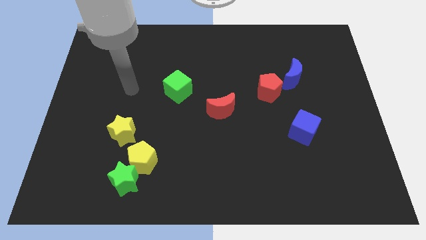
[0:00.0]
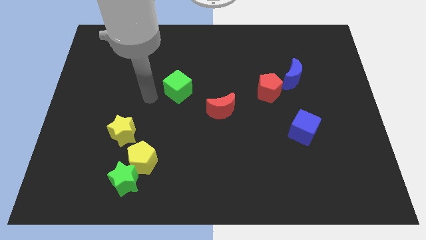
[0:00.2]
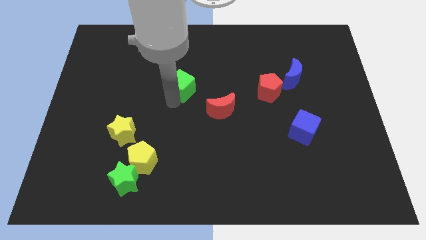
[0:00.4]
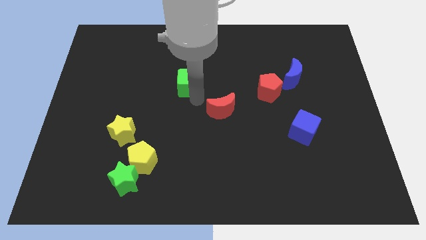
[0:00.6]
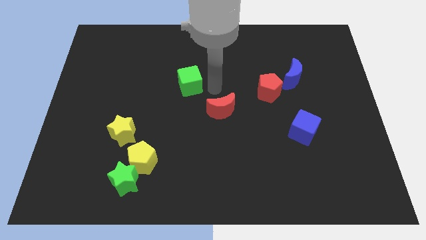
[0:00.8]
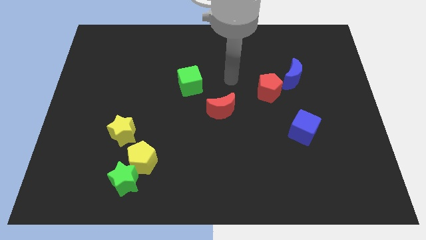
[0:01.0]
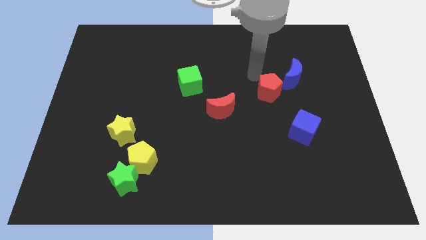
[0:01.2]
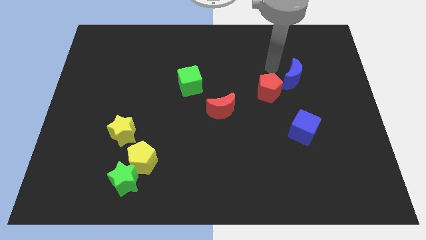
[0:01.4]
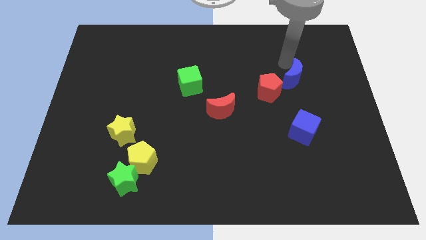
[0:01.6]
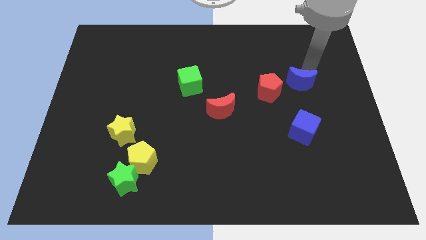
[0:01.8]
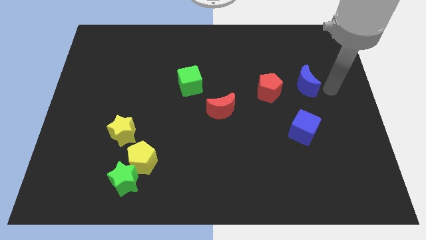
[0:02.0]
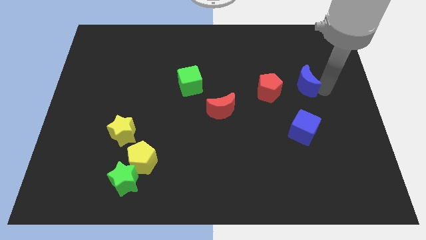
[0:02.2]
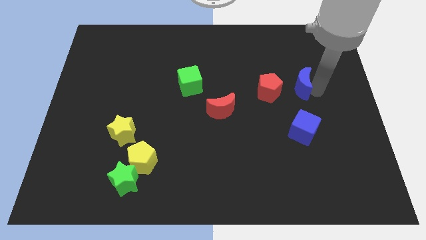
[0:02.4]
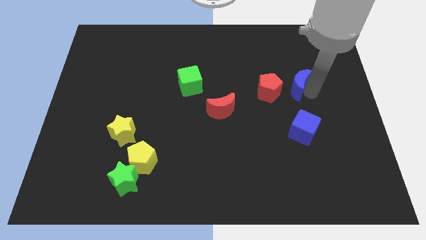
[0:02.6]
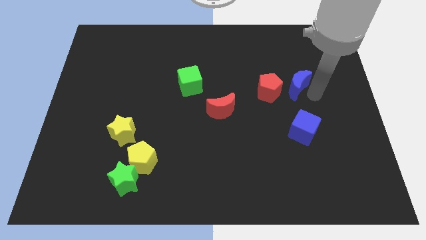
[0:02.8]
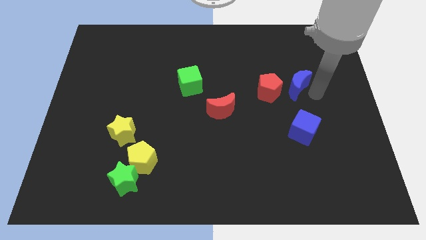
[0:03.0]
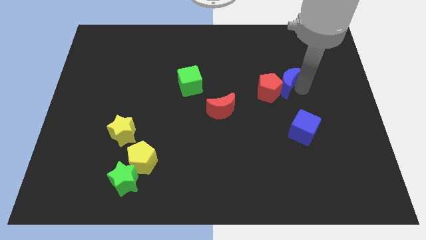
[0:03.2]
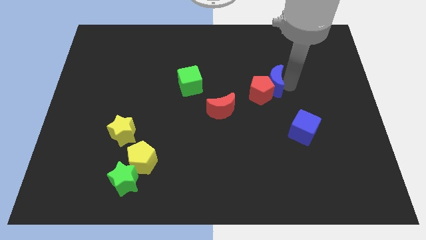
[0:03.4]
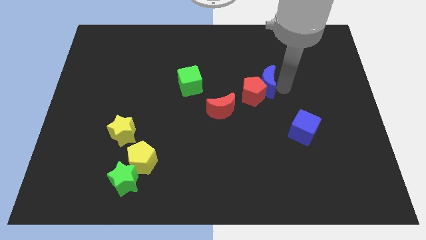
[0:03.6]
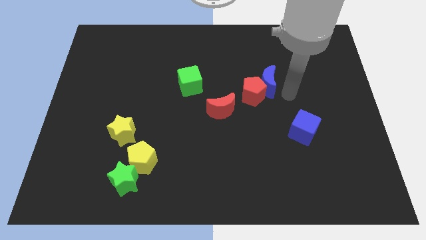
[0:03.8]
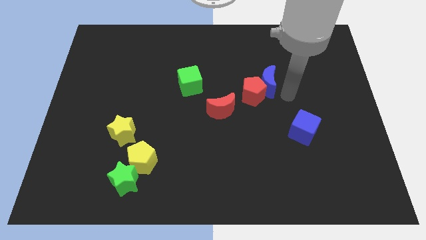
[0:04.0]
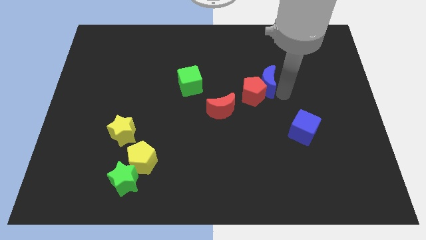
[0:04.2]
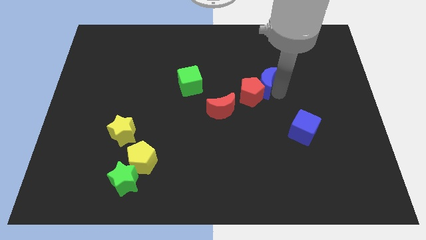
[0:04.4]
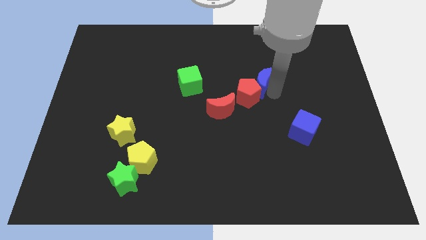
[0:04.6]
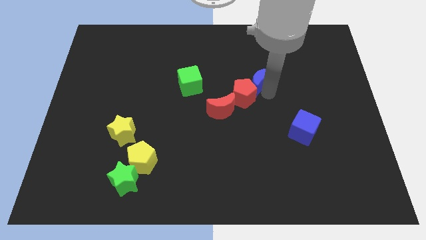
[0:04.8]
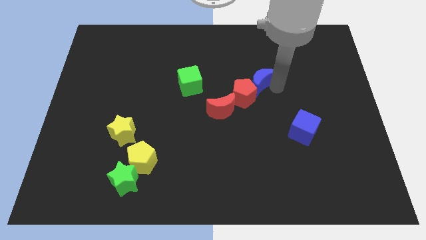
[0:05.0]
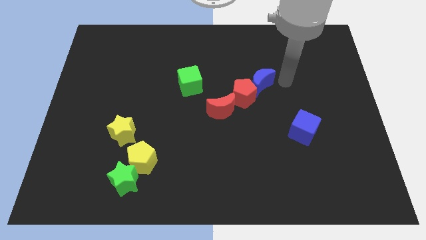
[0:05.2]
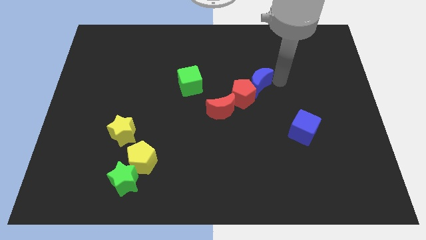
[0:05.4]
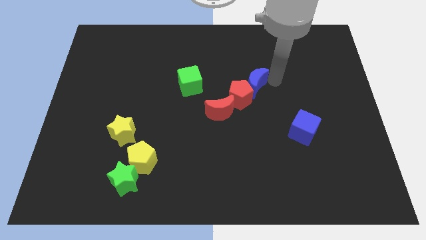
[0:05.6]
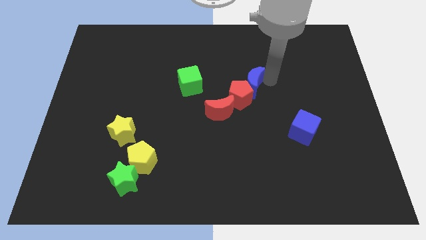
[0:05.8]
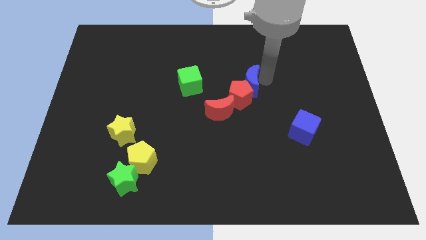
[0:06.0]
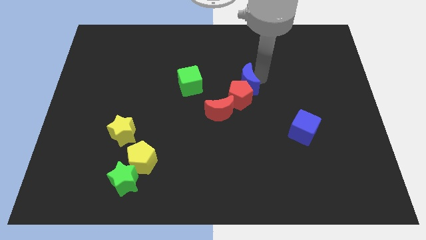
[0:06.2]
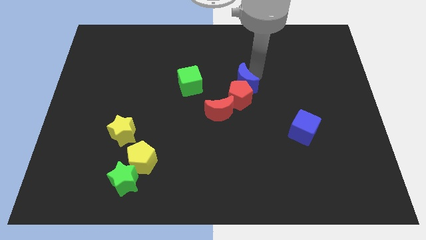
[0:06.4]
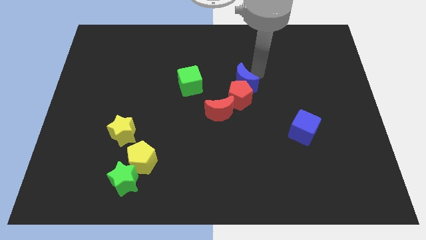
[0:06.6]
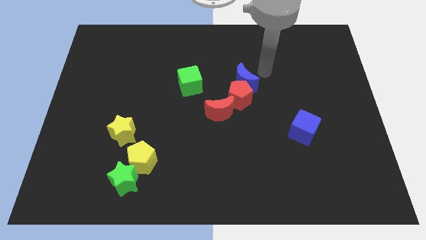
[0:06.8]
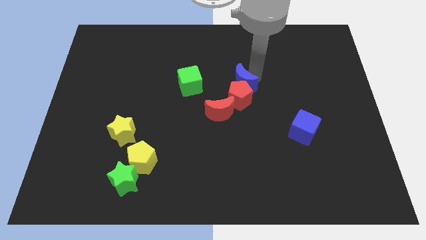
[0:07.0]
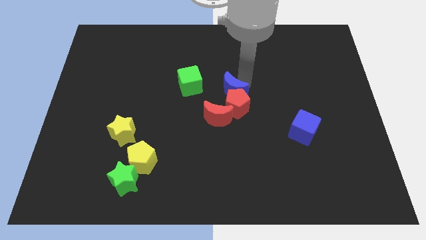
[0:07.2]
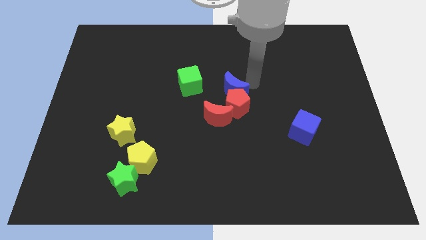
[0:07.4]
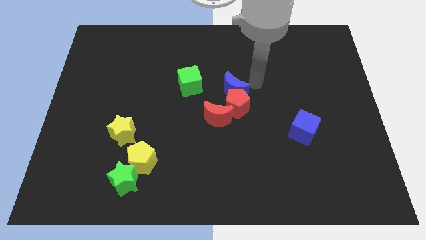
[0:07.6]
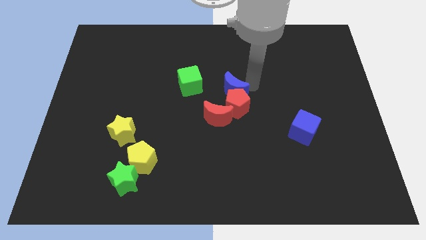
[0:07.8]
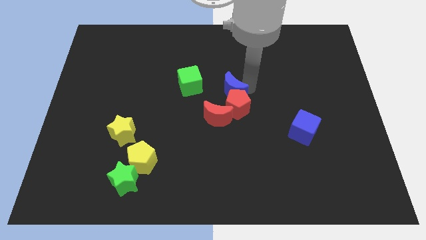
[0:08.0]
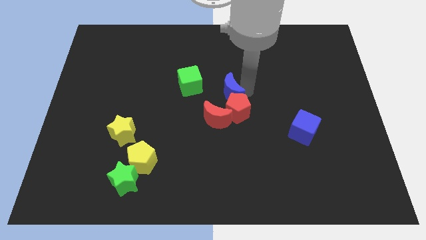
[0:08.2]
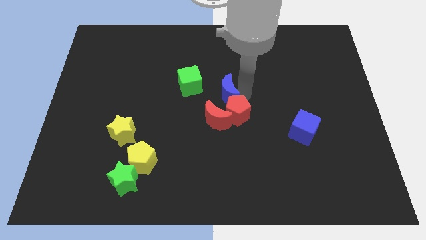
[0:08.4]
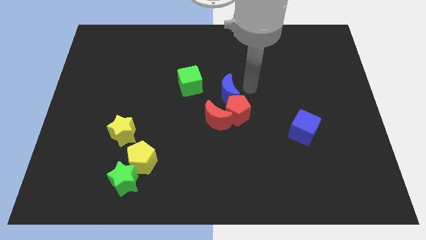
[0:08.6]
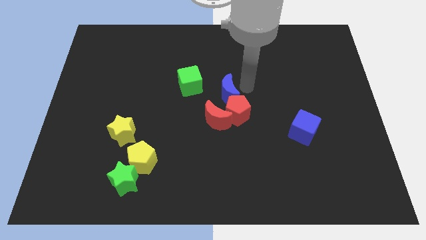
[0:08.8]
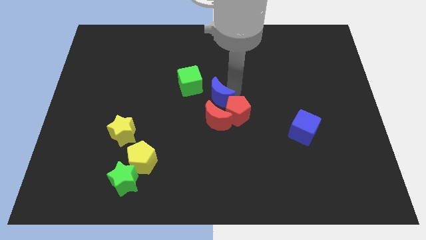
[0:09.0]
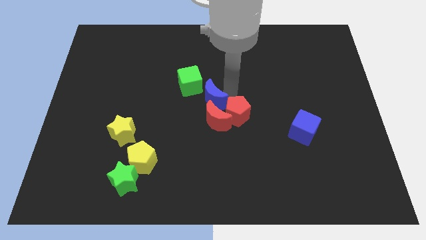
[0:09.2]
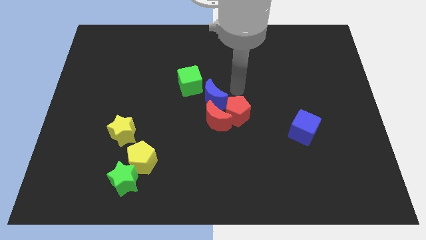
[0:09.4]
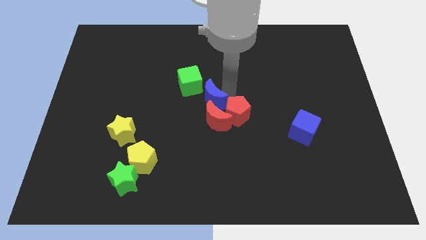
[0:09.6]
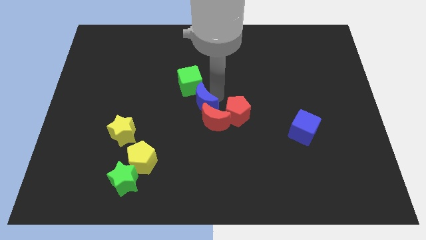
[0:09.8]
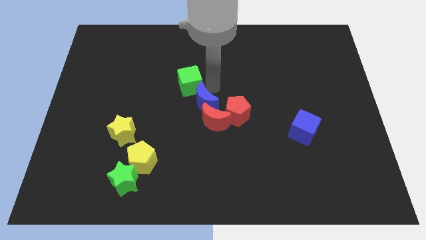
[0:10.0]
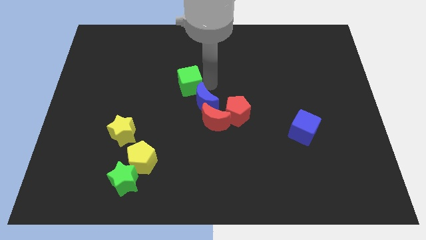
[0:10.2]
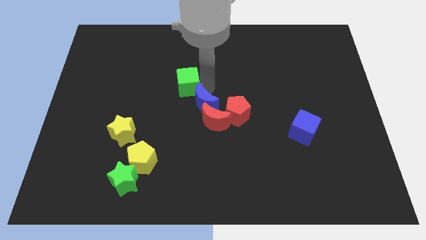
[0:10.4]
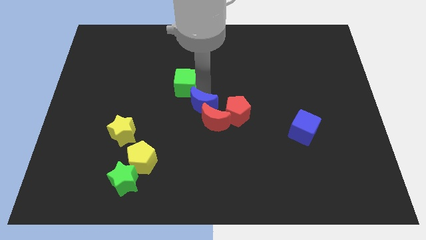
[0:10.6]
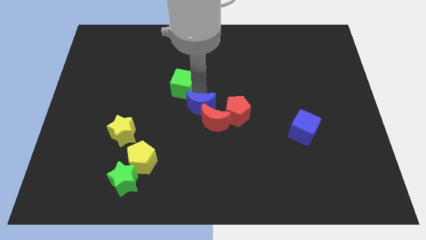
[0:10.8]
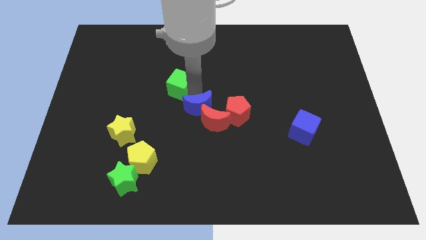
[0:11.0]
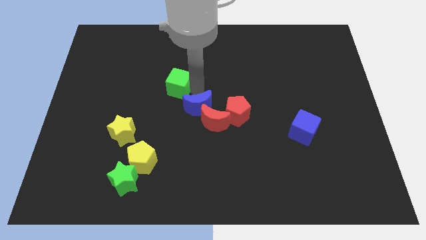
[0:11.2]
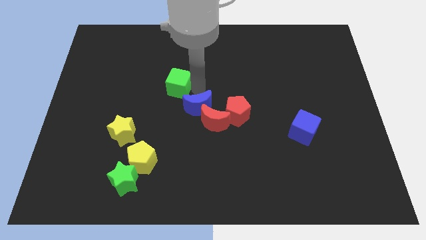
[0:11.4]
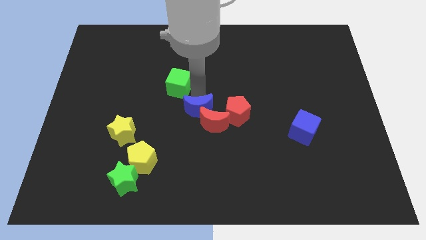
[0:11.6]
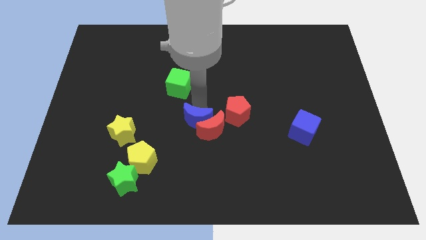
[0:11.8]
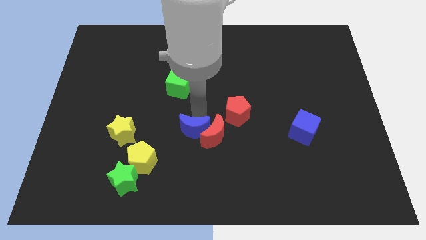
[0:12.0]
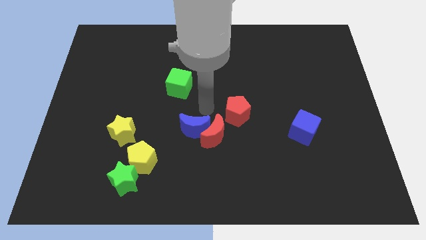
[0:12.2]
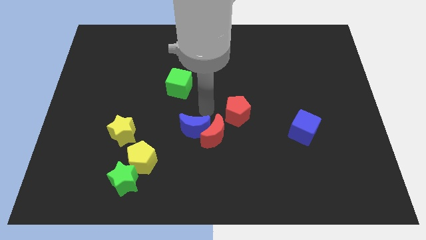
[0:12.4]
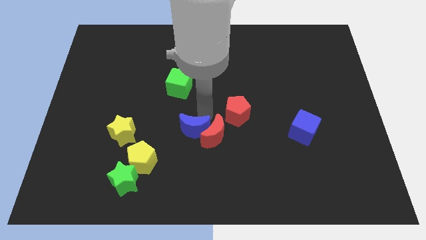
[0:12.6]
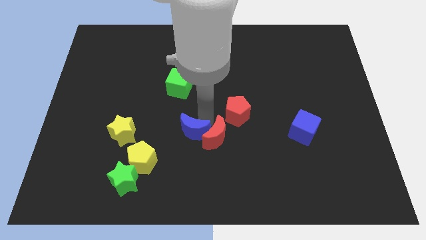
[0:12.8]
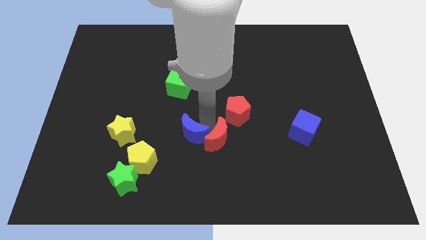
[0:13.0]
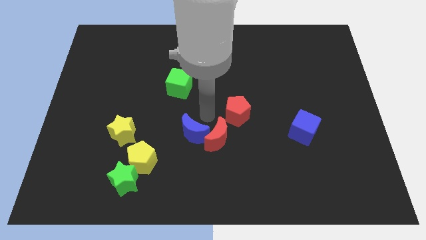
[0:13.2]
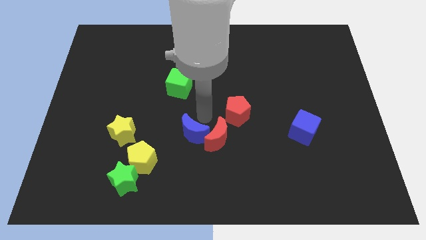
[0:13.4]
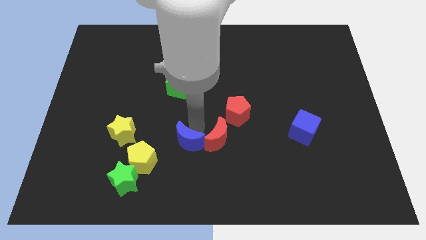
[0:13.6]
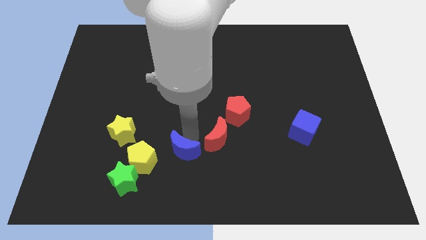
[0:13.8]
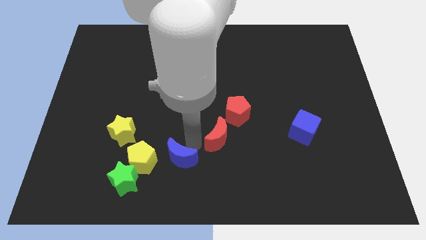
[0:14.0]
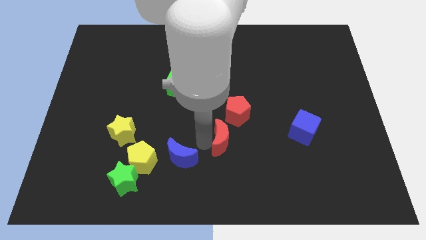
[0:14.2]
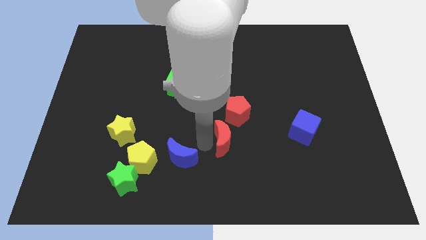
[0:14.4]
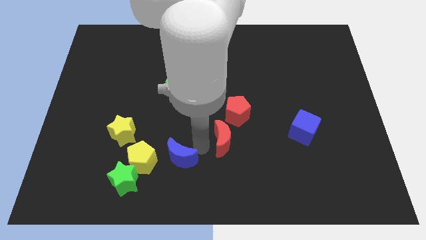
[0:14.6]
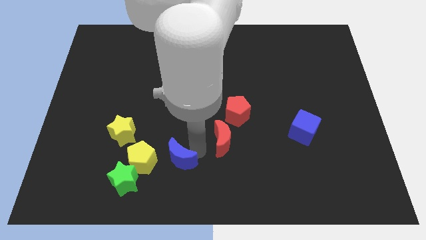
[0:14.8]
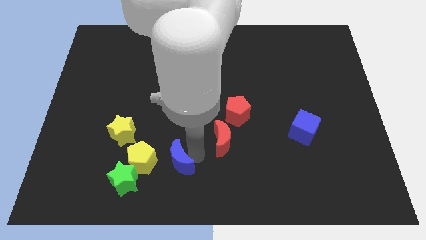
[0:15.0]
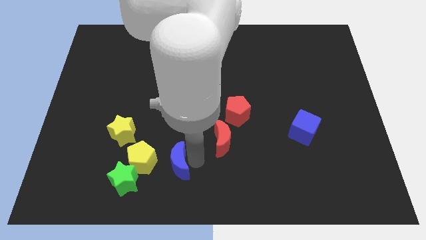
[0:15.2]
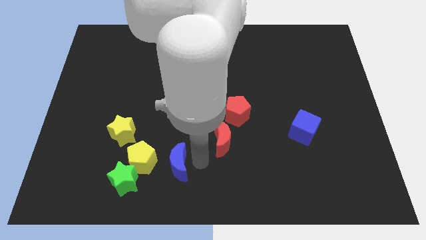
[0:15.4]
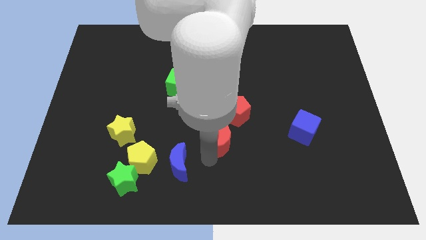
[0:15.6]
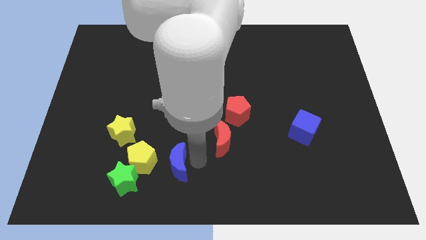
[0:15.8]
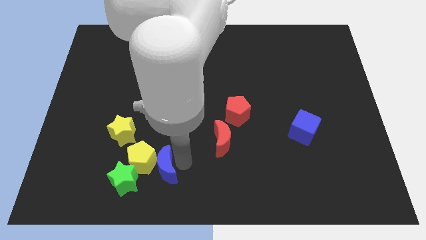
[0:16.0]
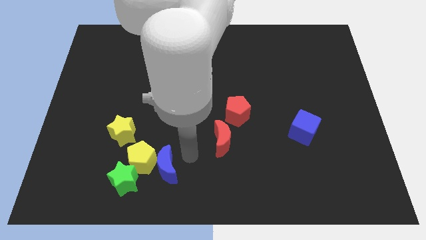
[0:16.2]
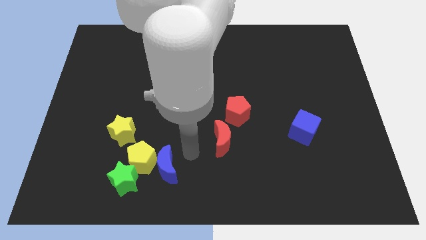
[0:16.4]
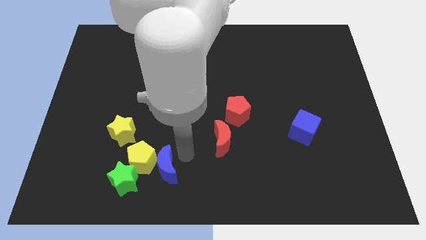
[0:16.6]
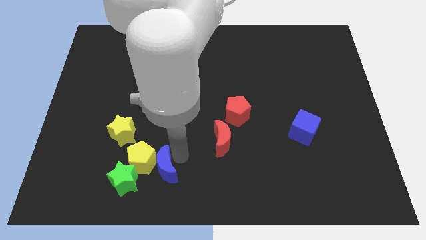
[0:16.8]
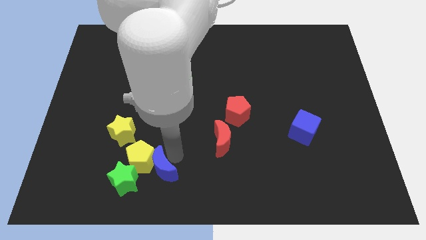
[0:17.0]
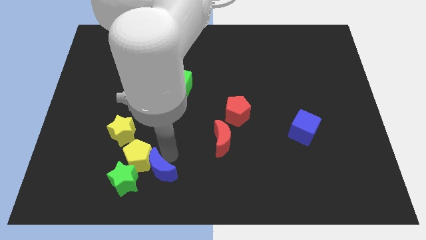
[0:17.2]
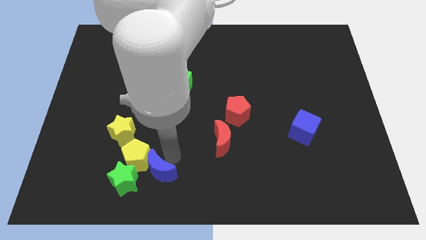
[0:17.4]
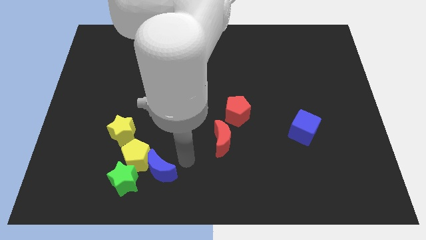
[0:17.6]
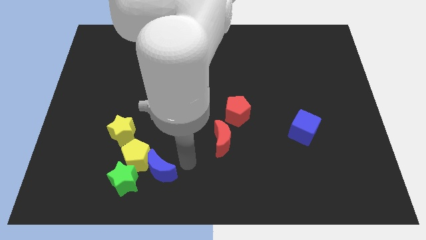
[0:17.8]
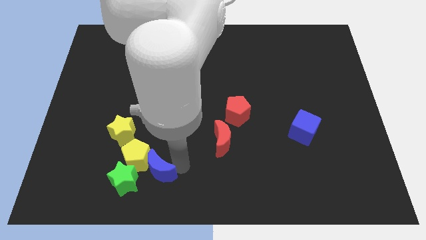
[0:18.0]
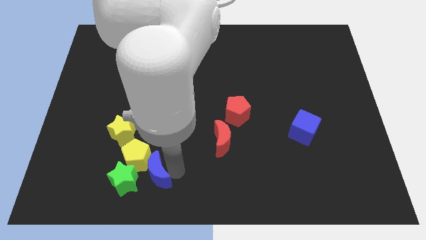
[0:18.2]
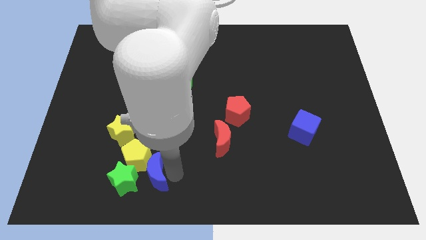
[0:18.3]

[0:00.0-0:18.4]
slide the blue moon towards the green star
